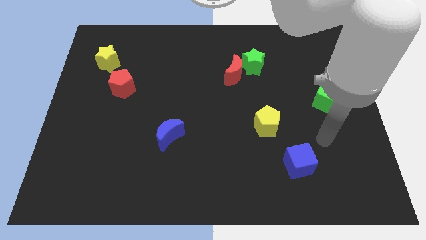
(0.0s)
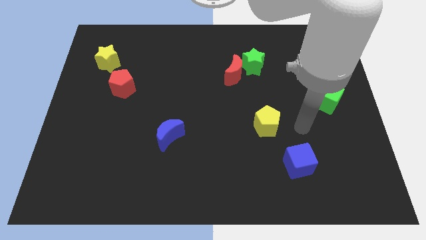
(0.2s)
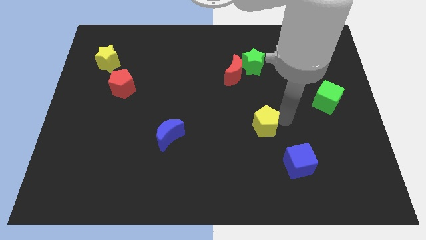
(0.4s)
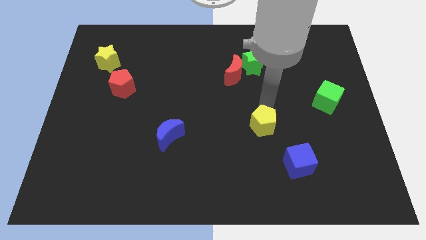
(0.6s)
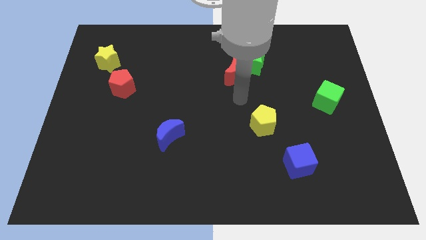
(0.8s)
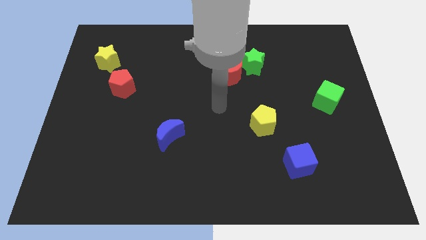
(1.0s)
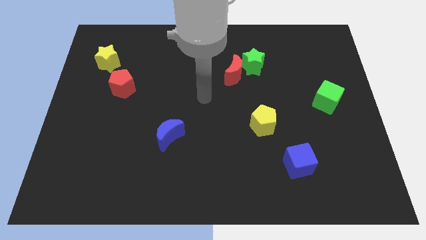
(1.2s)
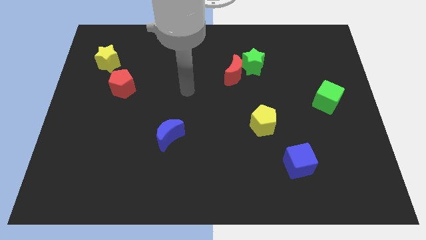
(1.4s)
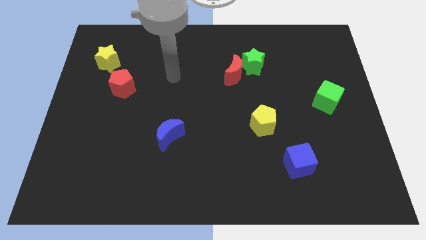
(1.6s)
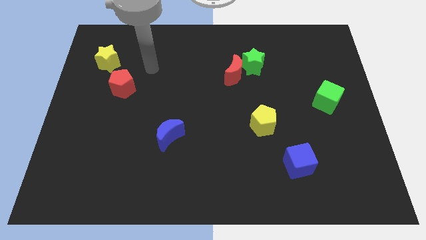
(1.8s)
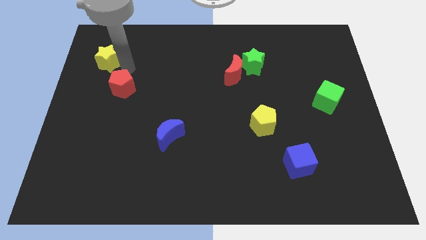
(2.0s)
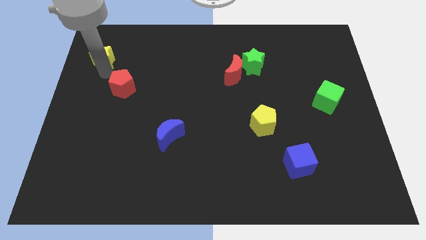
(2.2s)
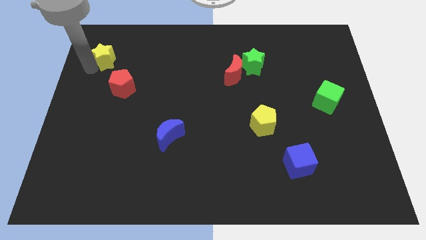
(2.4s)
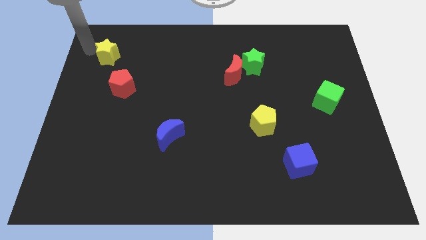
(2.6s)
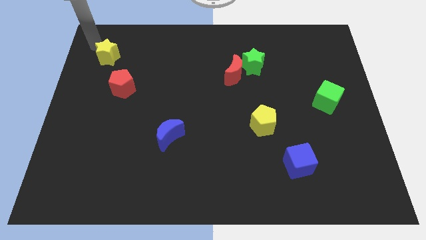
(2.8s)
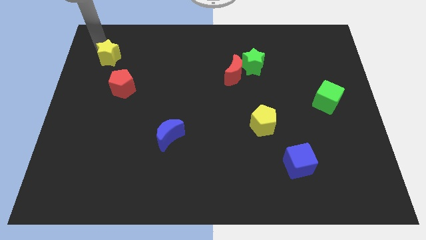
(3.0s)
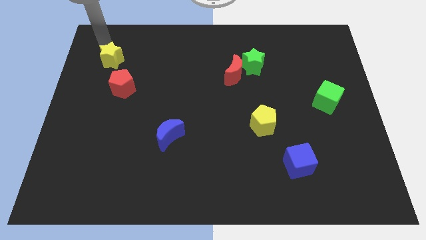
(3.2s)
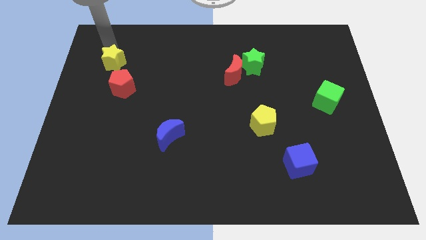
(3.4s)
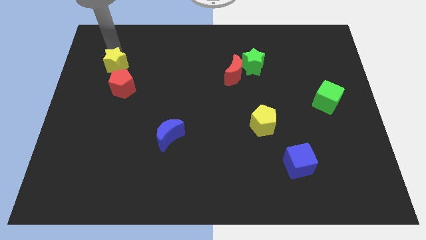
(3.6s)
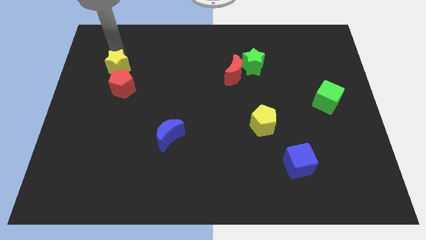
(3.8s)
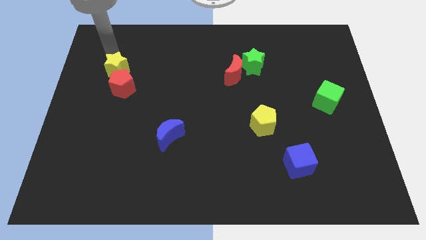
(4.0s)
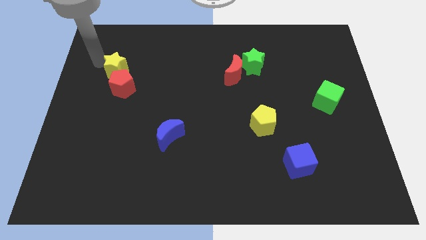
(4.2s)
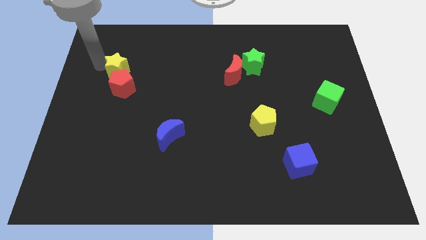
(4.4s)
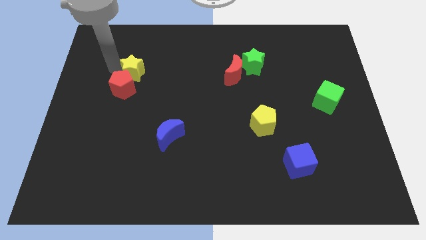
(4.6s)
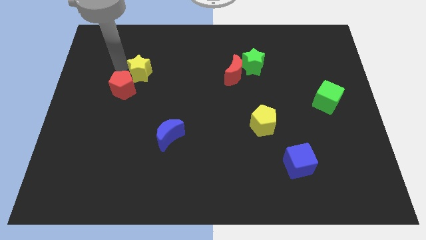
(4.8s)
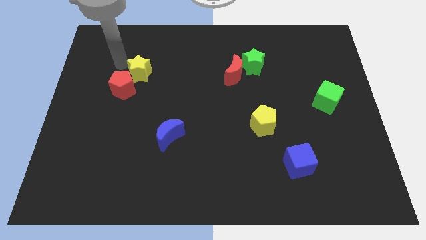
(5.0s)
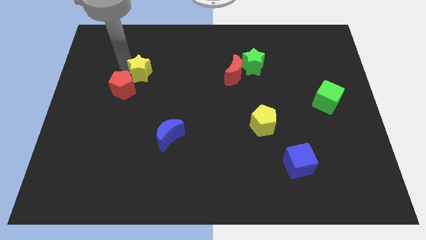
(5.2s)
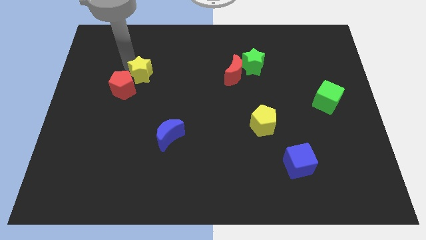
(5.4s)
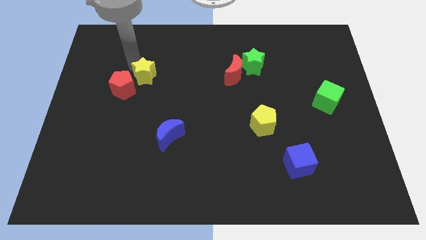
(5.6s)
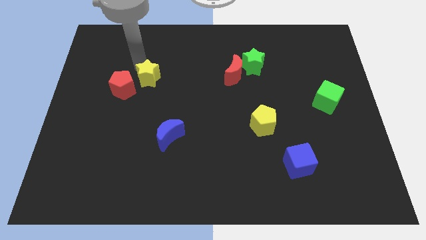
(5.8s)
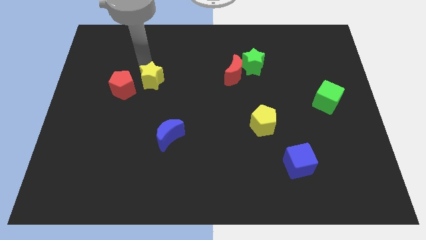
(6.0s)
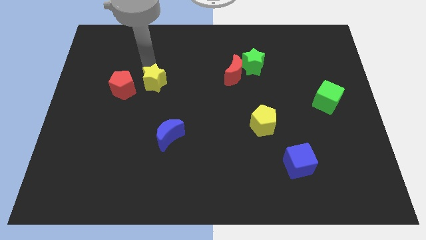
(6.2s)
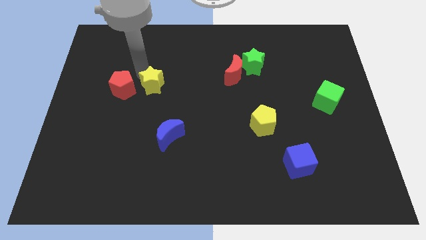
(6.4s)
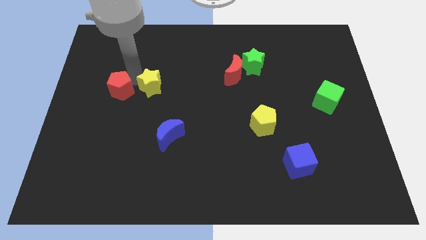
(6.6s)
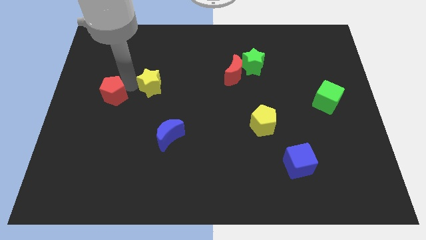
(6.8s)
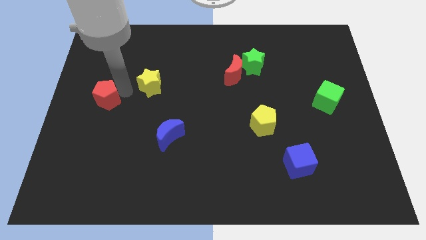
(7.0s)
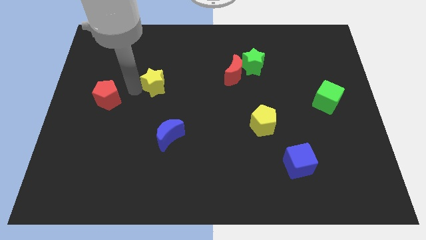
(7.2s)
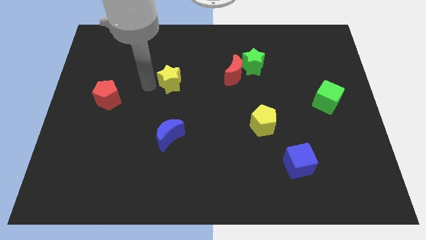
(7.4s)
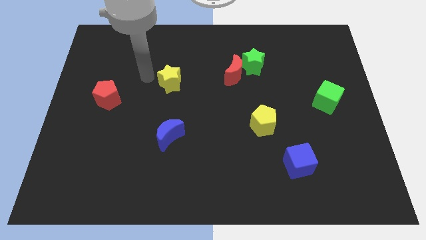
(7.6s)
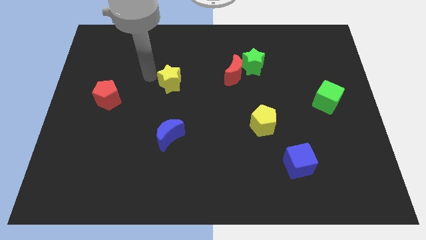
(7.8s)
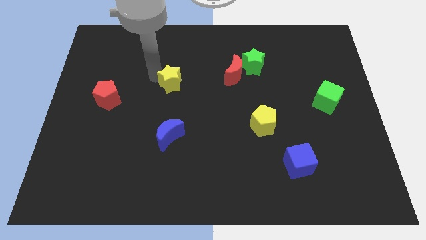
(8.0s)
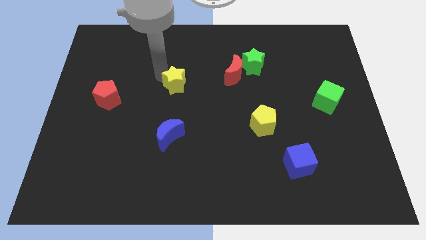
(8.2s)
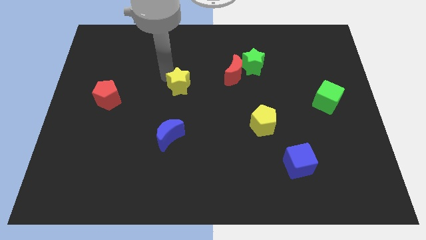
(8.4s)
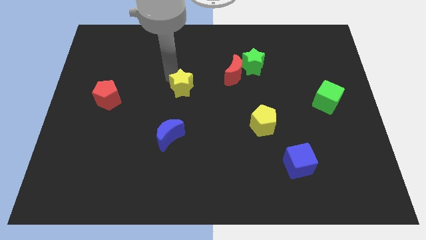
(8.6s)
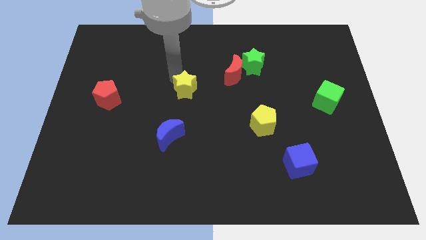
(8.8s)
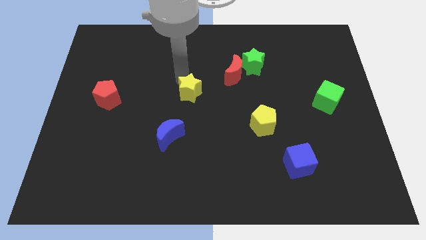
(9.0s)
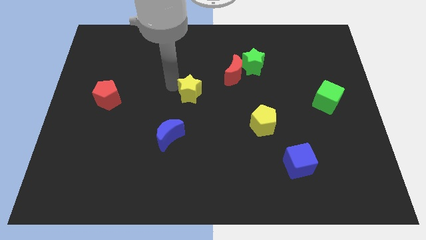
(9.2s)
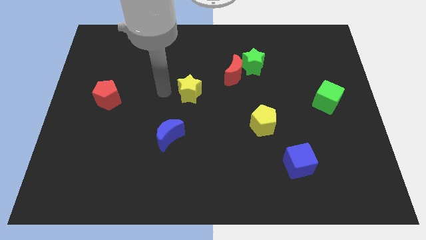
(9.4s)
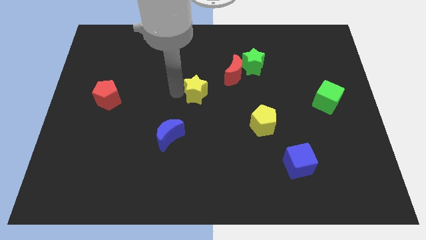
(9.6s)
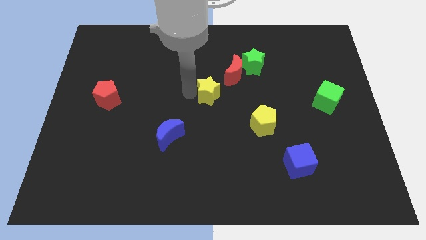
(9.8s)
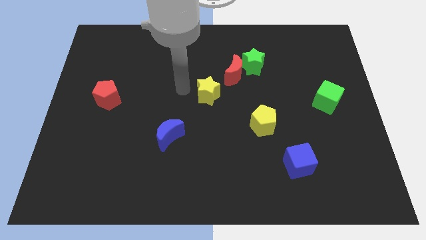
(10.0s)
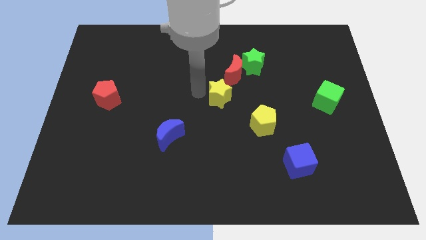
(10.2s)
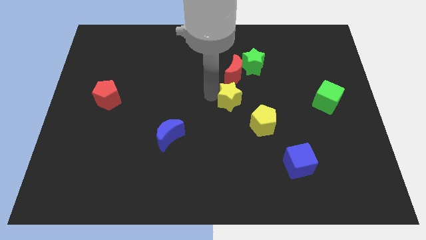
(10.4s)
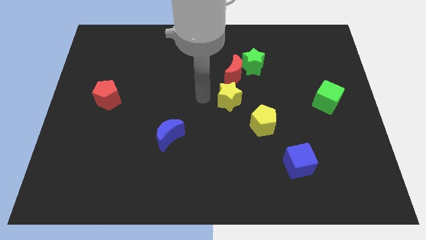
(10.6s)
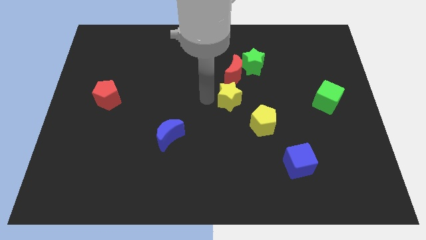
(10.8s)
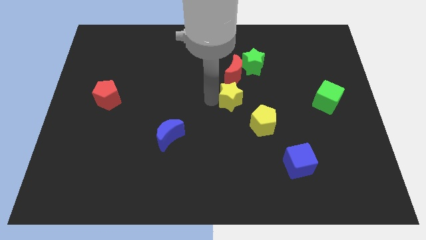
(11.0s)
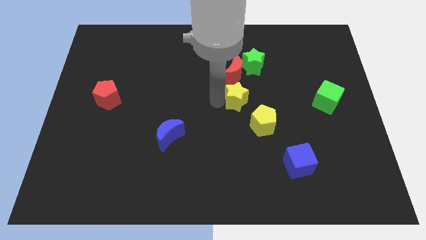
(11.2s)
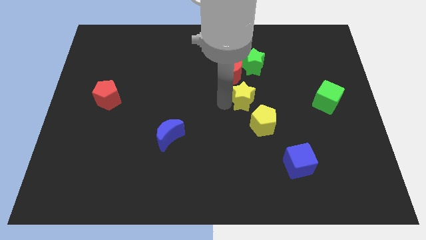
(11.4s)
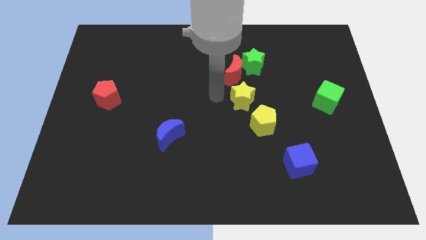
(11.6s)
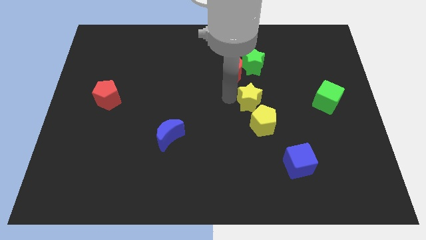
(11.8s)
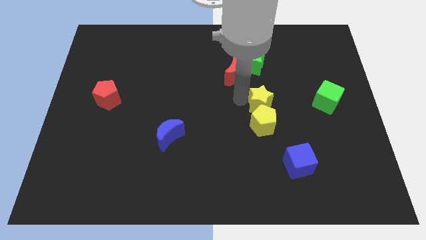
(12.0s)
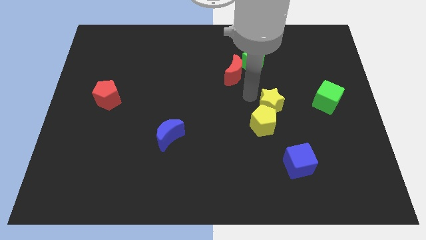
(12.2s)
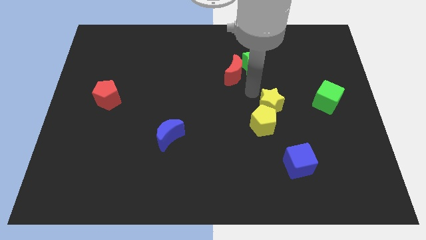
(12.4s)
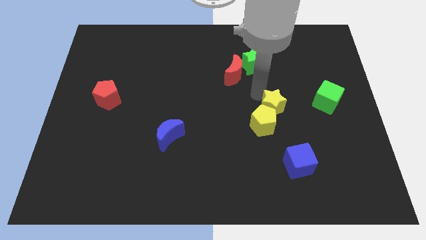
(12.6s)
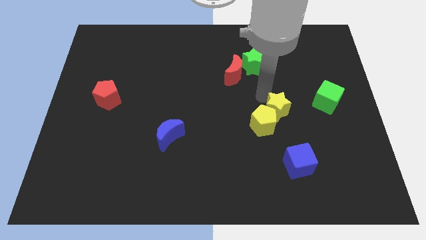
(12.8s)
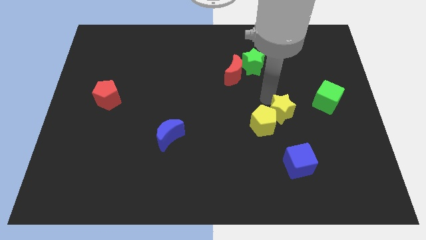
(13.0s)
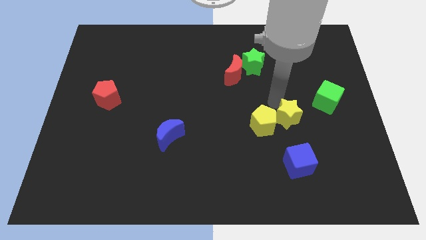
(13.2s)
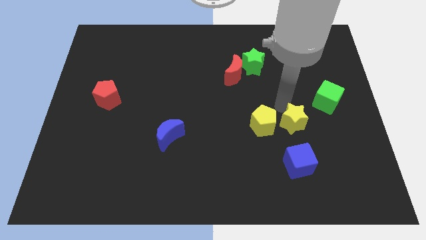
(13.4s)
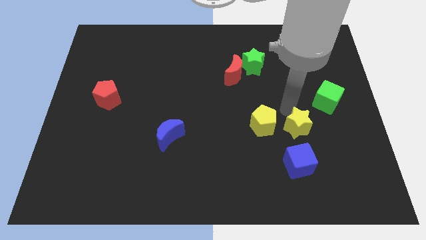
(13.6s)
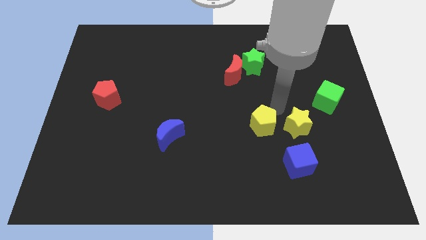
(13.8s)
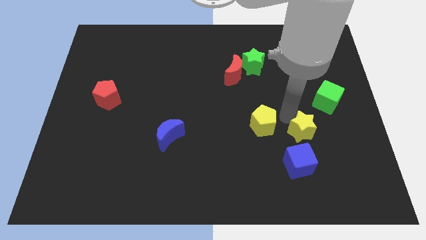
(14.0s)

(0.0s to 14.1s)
push the yellow star to the top right side of the blue cube
